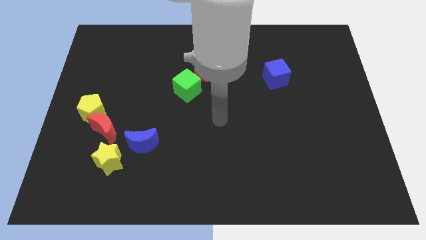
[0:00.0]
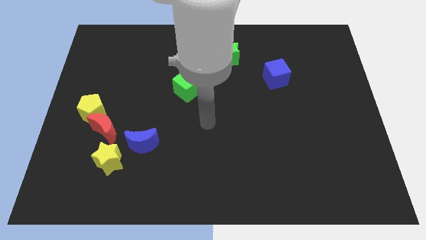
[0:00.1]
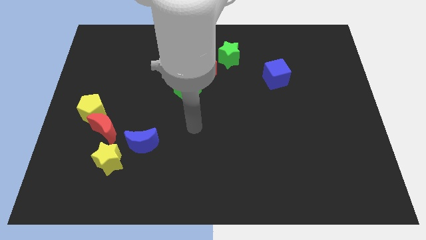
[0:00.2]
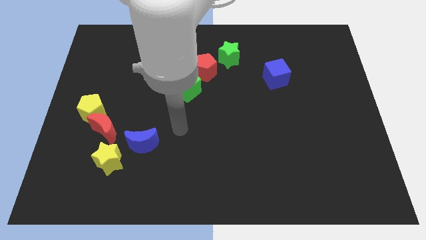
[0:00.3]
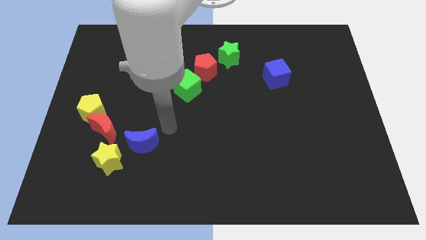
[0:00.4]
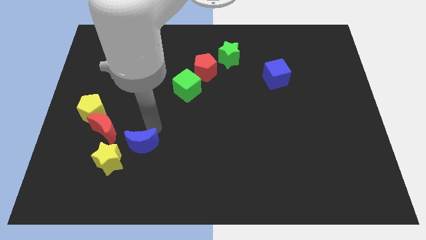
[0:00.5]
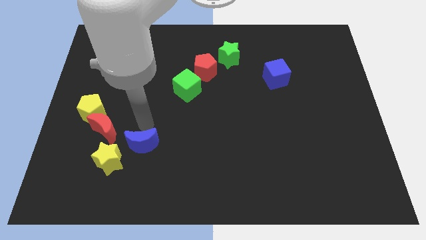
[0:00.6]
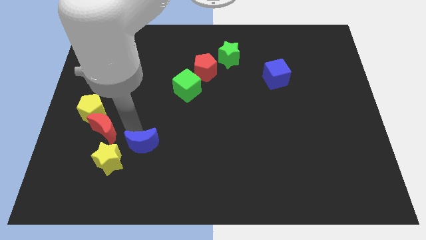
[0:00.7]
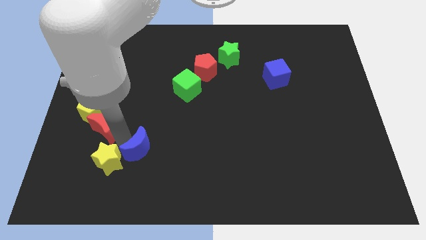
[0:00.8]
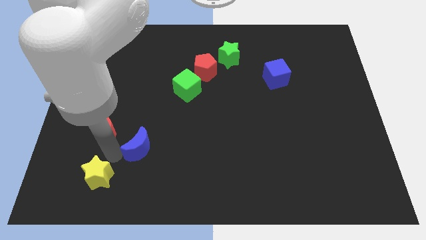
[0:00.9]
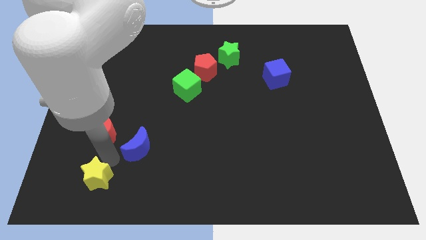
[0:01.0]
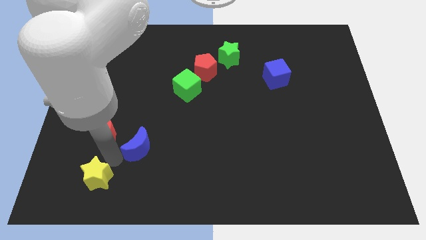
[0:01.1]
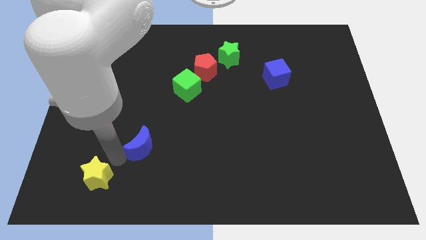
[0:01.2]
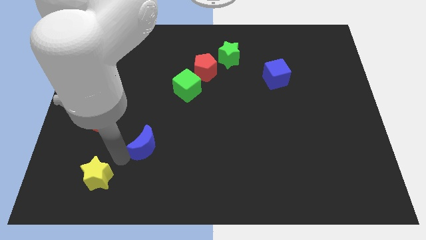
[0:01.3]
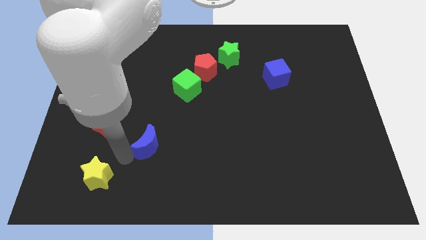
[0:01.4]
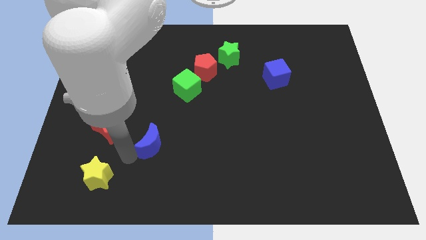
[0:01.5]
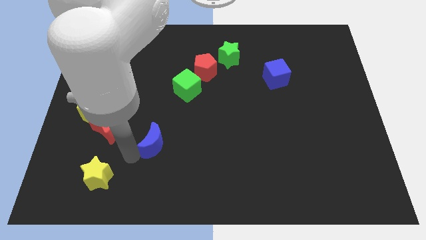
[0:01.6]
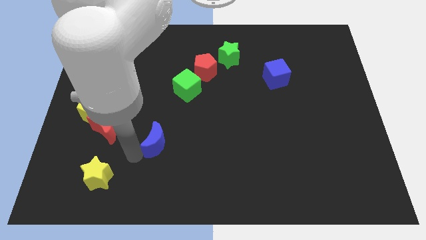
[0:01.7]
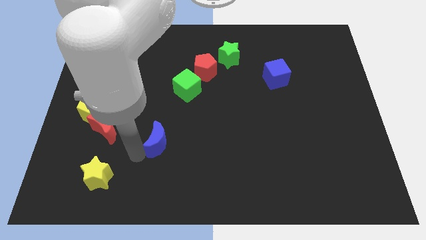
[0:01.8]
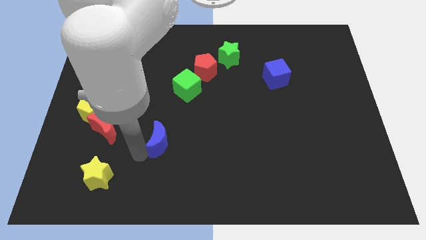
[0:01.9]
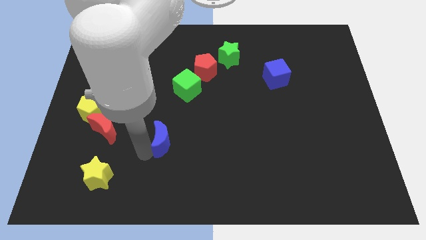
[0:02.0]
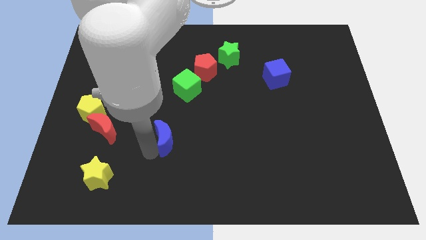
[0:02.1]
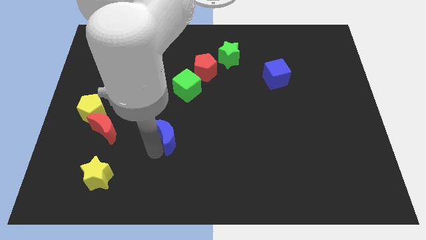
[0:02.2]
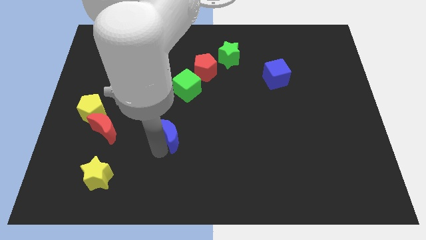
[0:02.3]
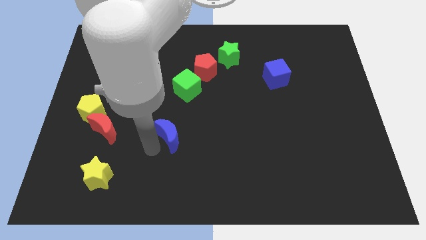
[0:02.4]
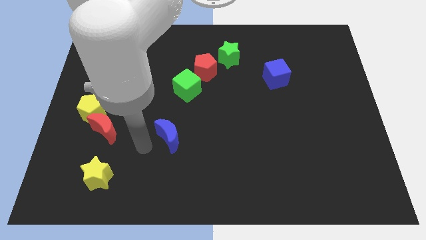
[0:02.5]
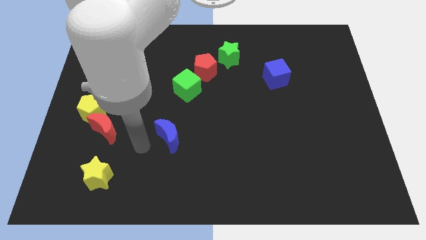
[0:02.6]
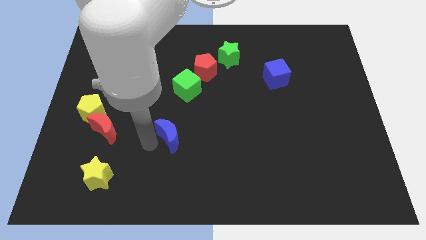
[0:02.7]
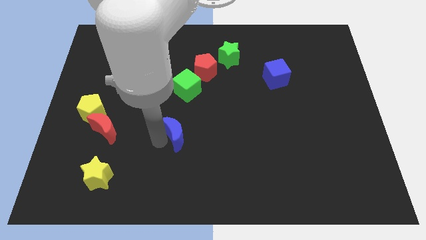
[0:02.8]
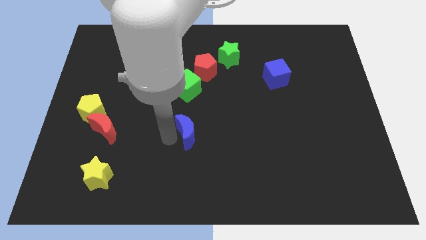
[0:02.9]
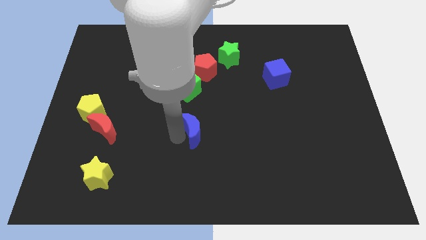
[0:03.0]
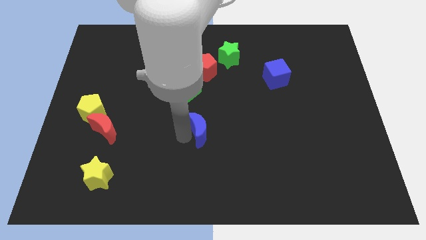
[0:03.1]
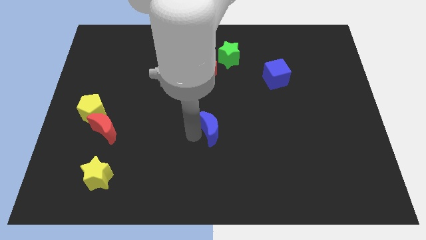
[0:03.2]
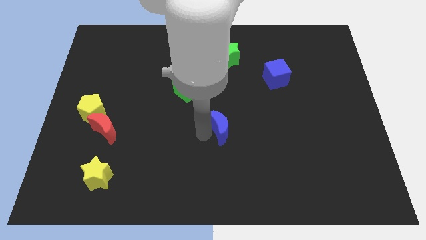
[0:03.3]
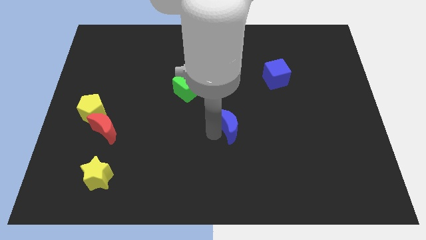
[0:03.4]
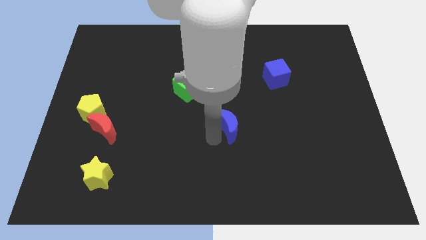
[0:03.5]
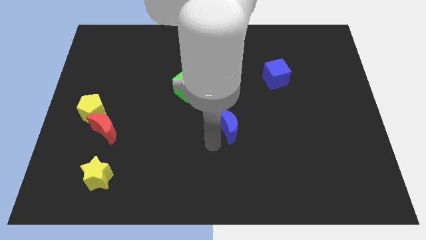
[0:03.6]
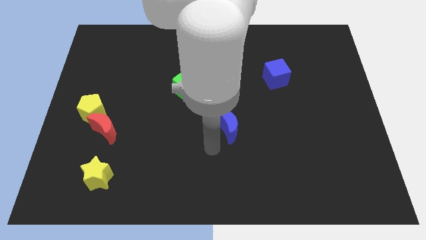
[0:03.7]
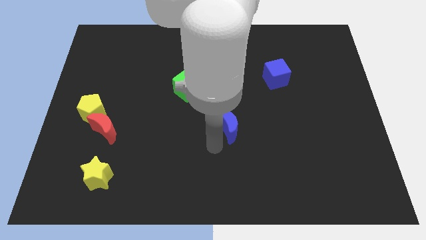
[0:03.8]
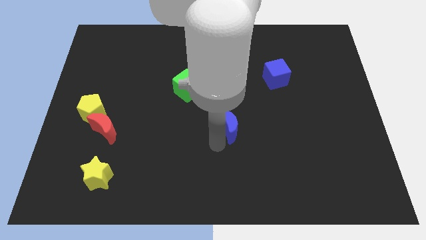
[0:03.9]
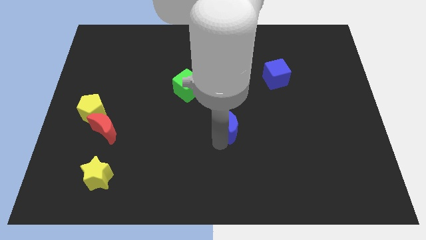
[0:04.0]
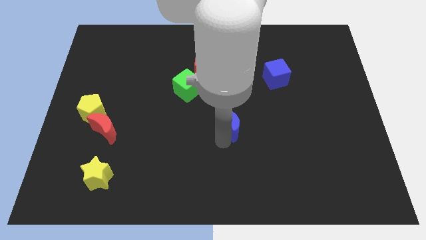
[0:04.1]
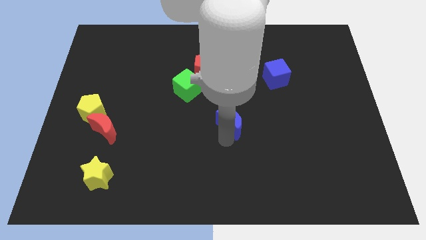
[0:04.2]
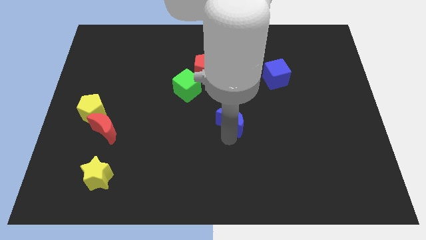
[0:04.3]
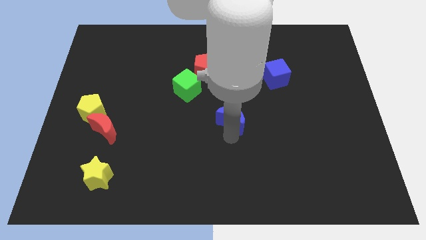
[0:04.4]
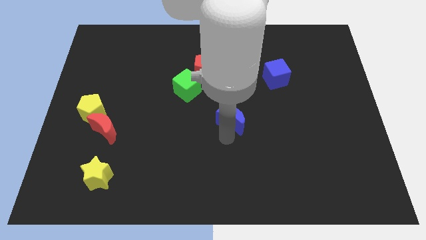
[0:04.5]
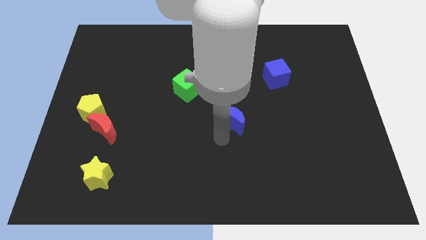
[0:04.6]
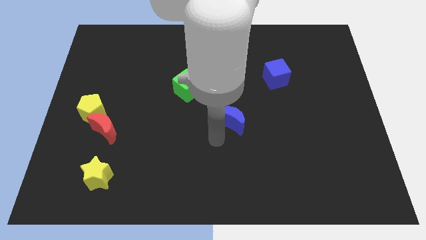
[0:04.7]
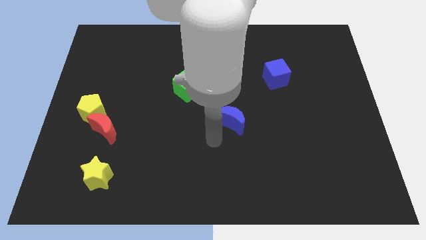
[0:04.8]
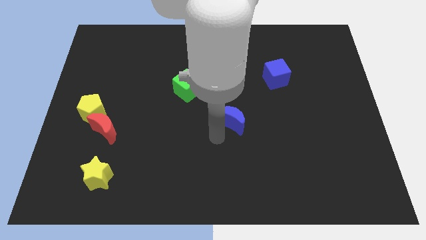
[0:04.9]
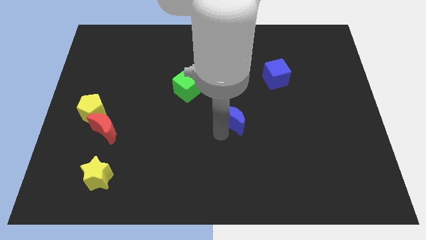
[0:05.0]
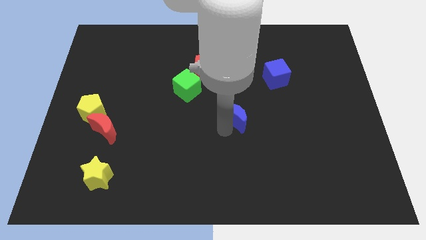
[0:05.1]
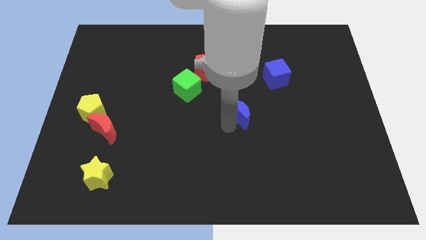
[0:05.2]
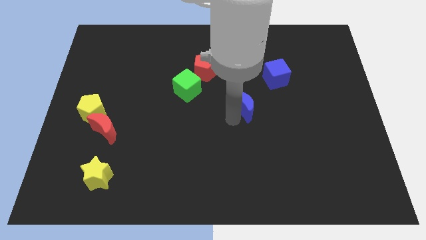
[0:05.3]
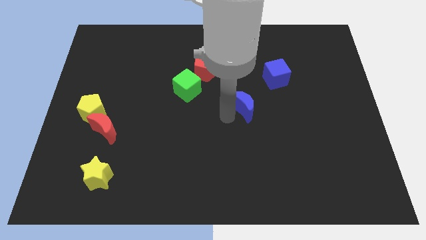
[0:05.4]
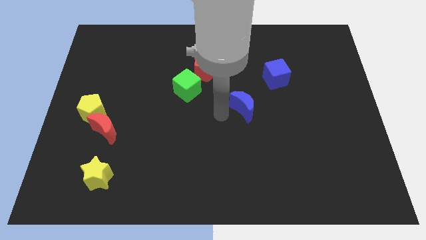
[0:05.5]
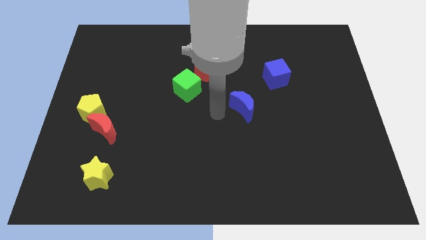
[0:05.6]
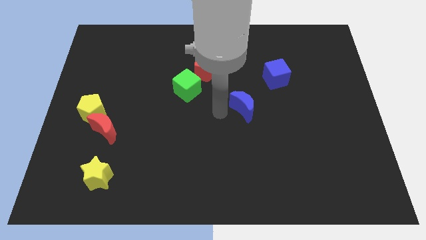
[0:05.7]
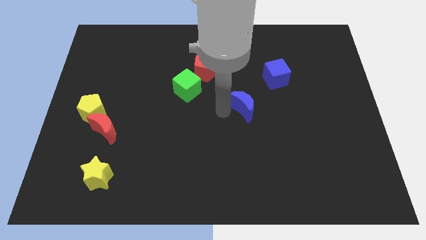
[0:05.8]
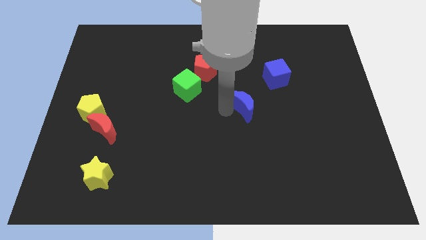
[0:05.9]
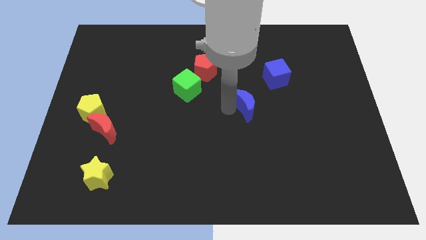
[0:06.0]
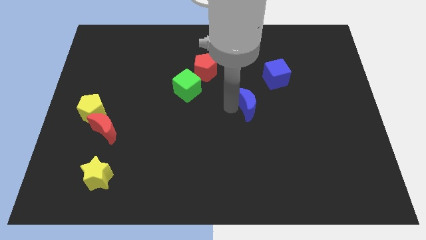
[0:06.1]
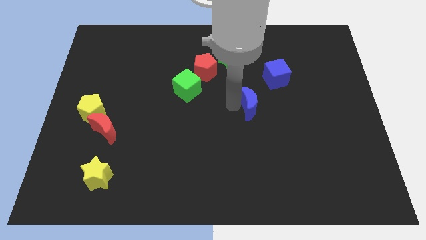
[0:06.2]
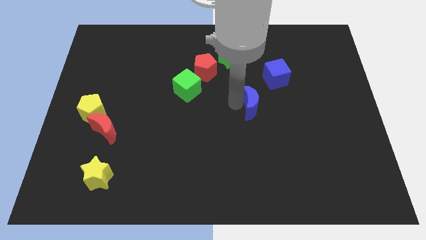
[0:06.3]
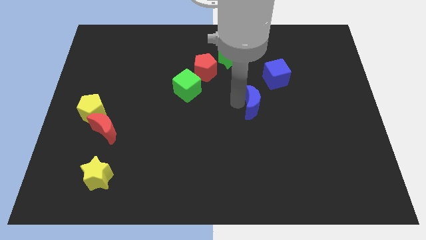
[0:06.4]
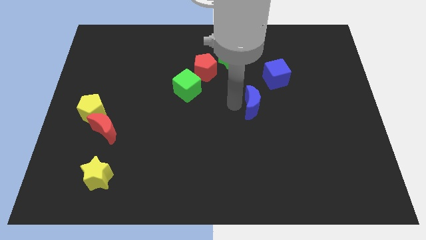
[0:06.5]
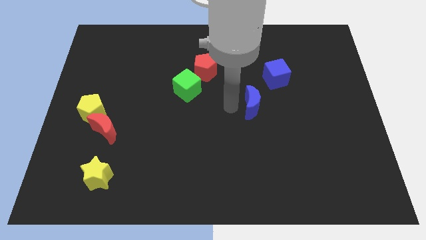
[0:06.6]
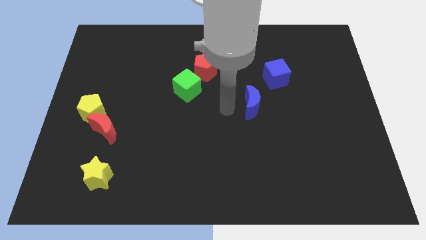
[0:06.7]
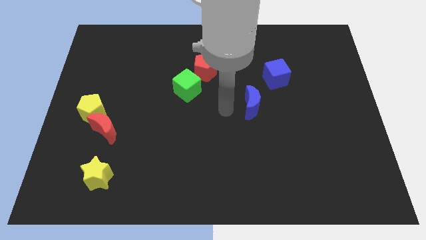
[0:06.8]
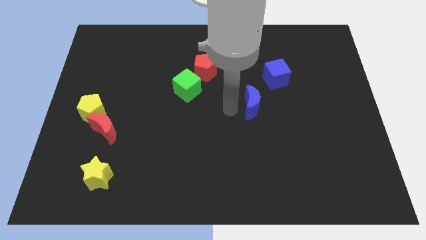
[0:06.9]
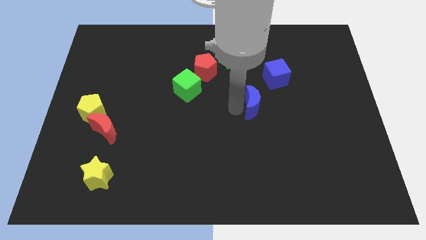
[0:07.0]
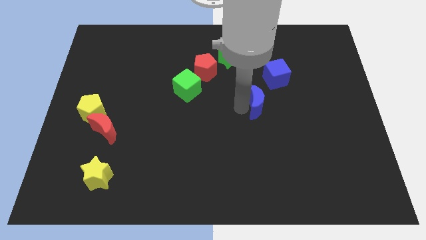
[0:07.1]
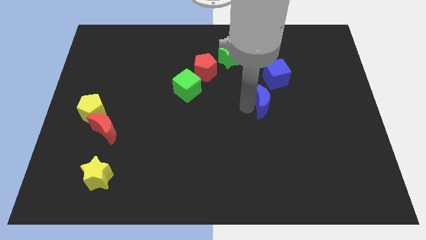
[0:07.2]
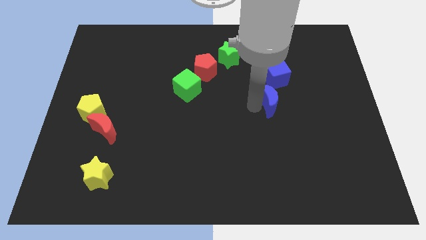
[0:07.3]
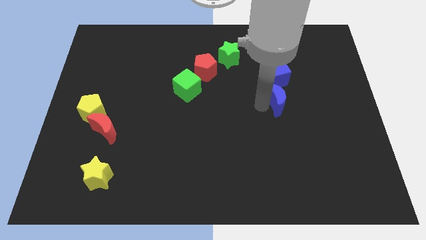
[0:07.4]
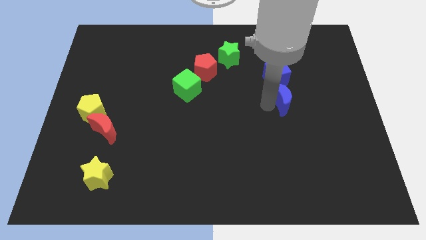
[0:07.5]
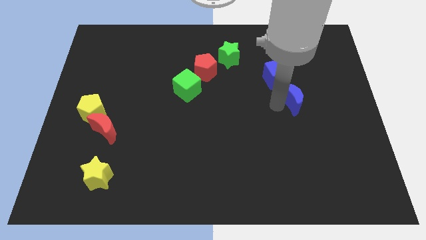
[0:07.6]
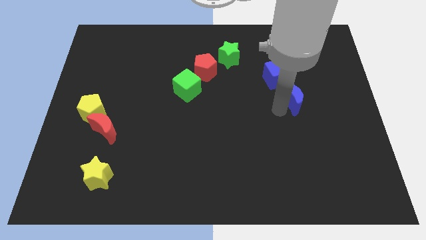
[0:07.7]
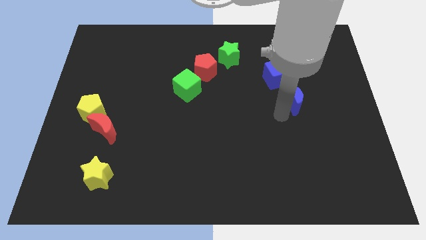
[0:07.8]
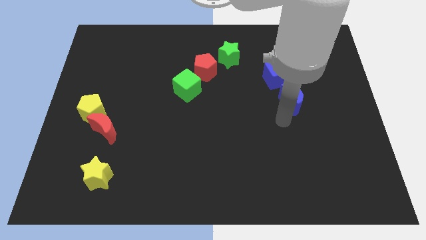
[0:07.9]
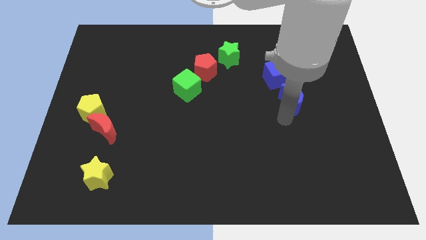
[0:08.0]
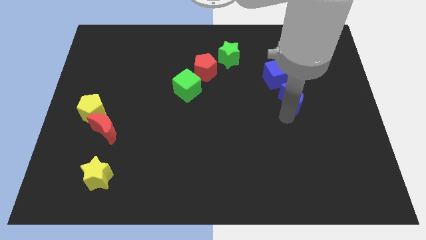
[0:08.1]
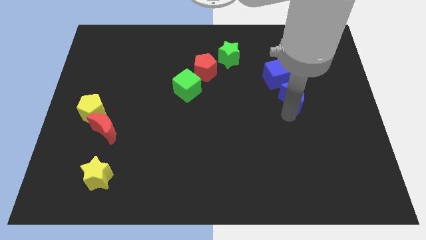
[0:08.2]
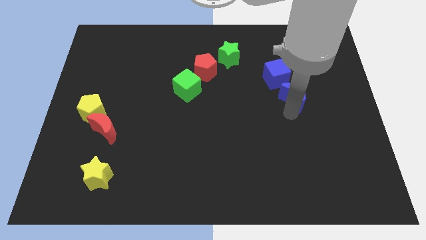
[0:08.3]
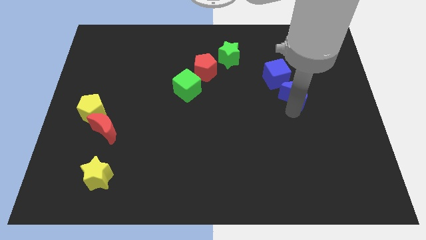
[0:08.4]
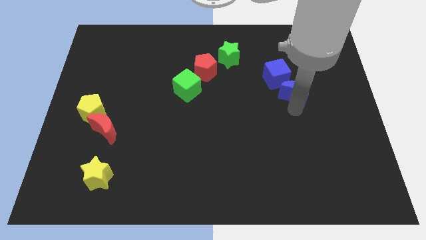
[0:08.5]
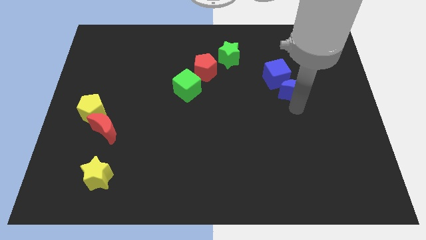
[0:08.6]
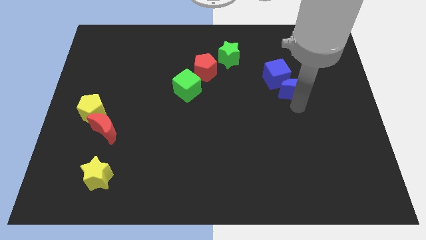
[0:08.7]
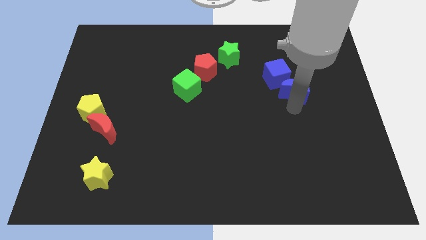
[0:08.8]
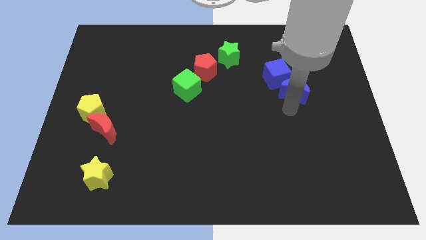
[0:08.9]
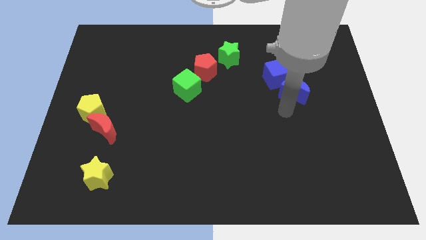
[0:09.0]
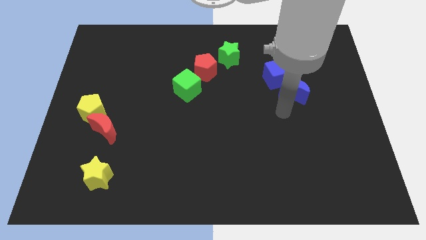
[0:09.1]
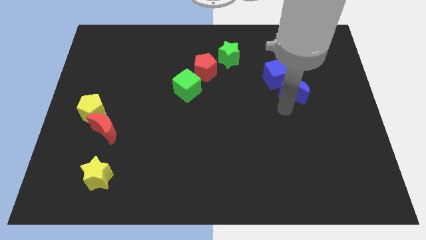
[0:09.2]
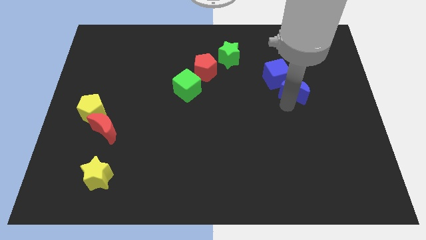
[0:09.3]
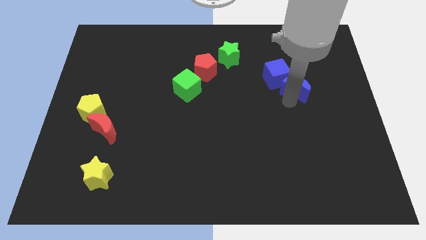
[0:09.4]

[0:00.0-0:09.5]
put the blue moon to the right of the blue cube
